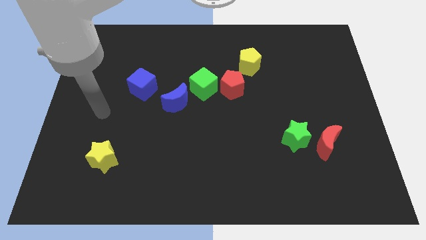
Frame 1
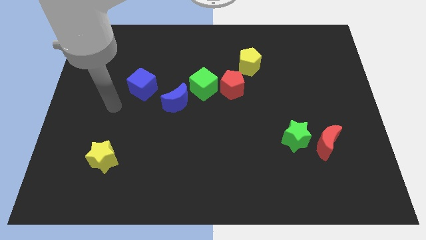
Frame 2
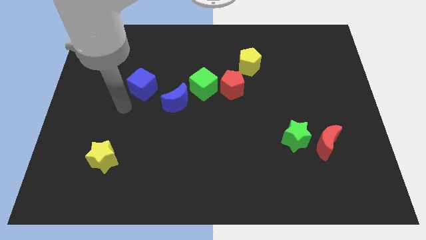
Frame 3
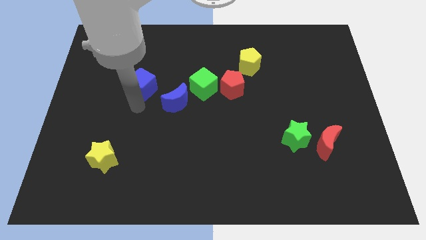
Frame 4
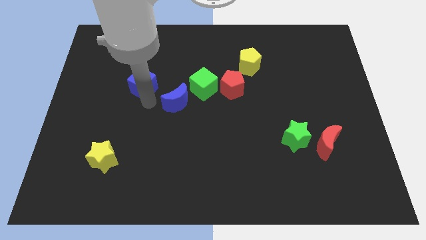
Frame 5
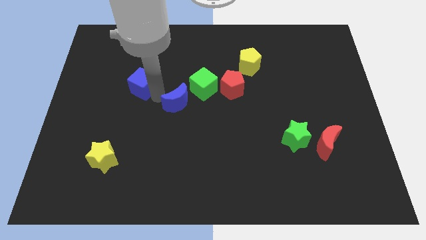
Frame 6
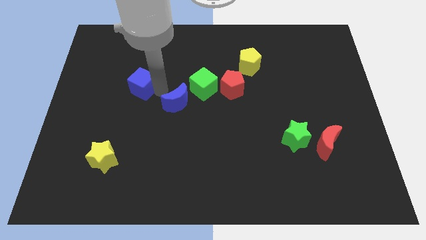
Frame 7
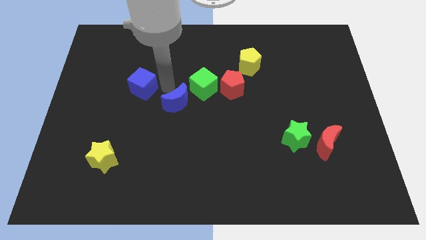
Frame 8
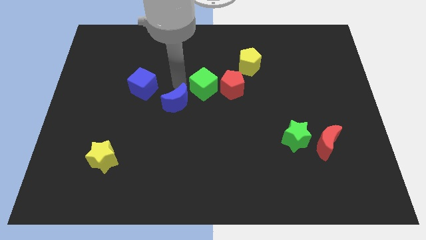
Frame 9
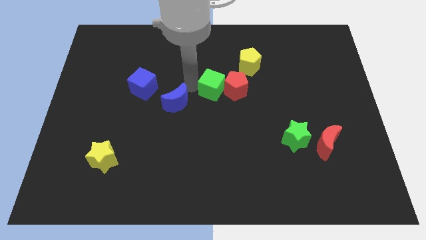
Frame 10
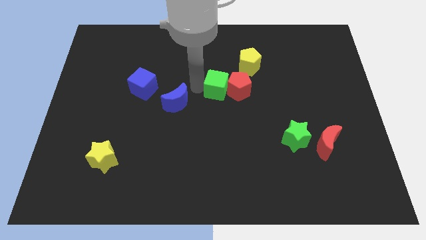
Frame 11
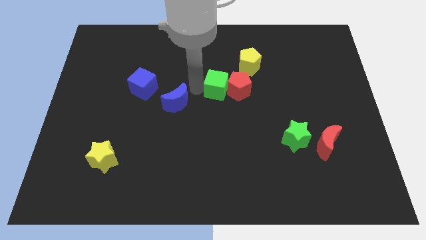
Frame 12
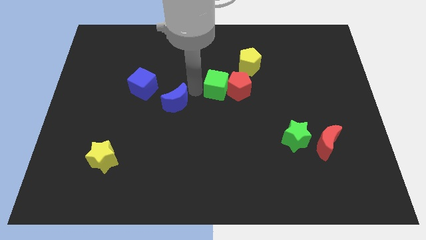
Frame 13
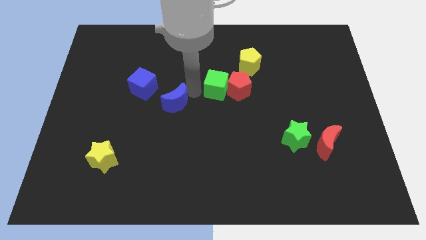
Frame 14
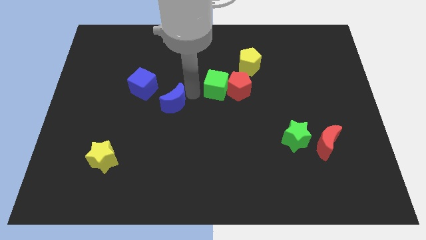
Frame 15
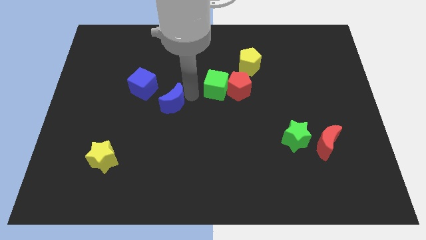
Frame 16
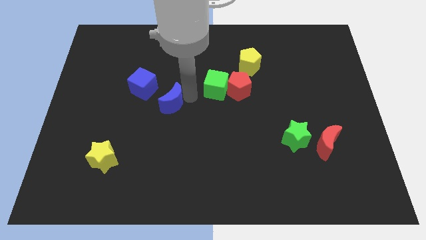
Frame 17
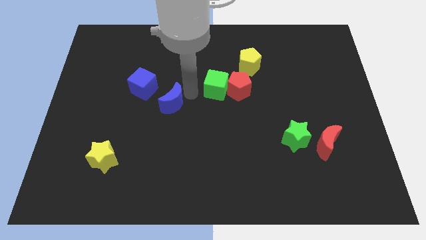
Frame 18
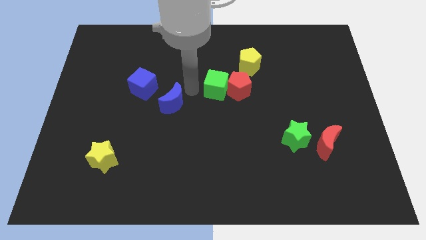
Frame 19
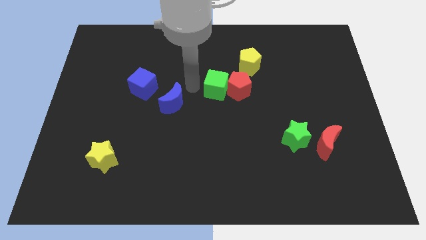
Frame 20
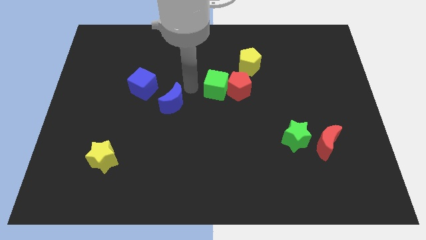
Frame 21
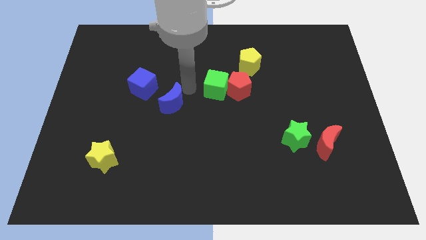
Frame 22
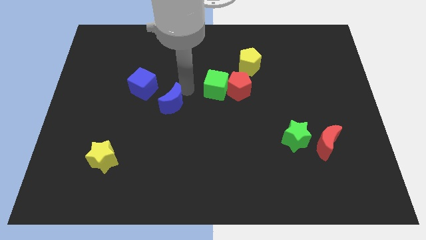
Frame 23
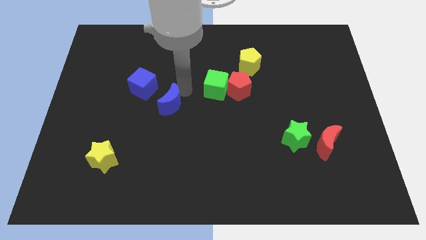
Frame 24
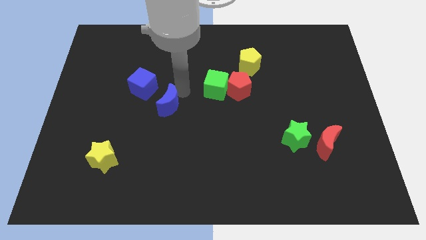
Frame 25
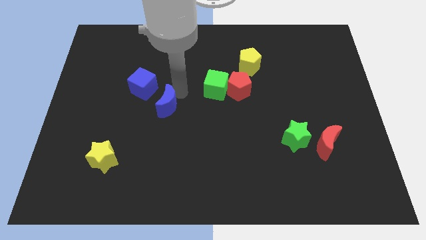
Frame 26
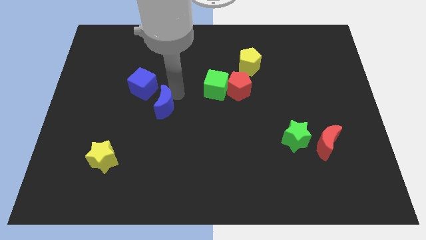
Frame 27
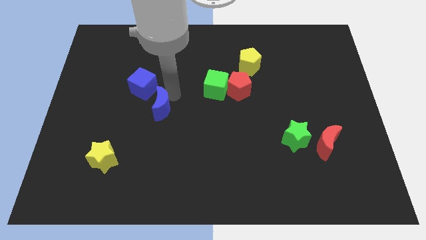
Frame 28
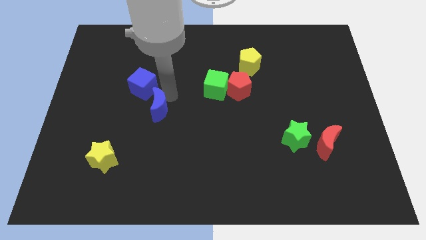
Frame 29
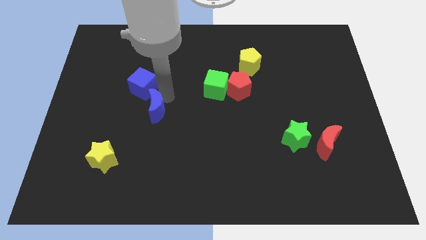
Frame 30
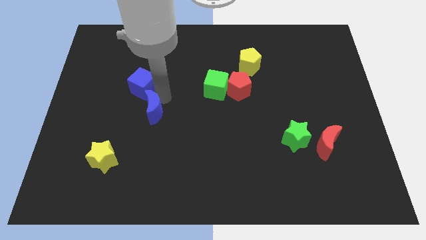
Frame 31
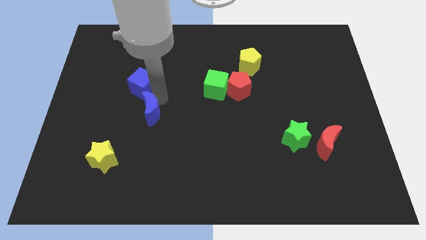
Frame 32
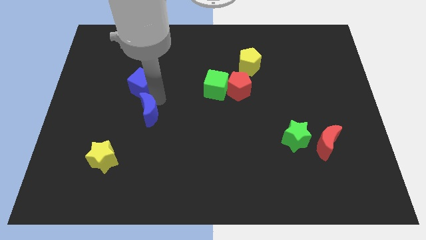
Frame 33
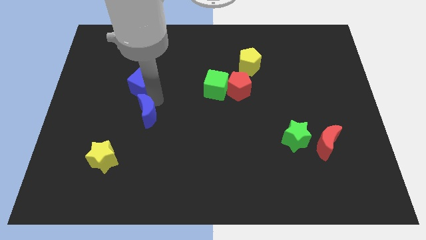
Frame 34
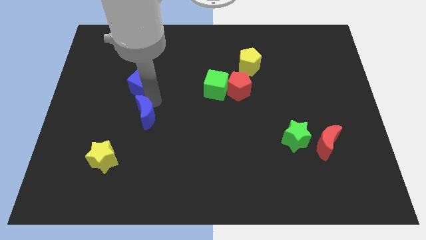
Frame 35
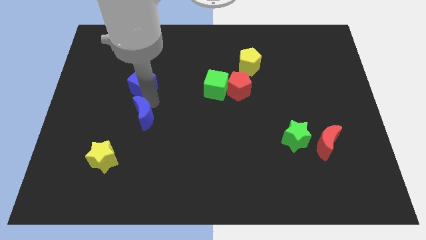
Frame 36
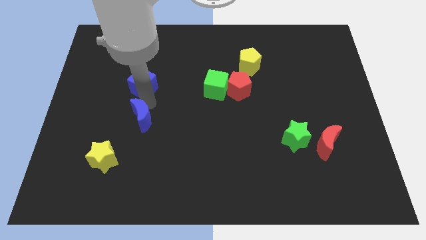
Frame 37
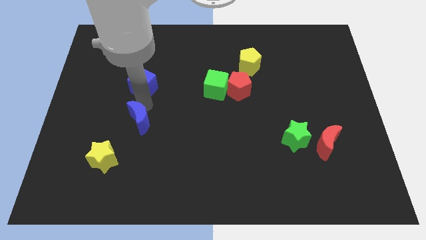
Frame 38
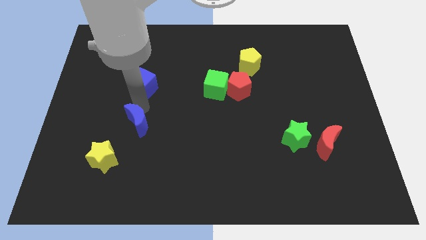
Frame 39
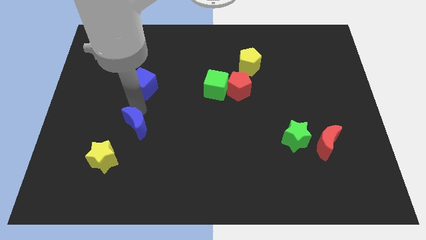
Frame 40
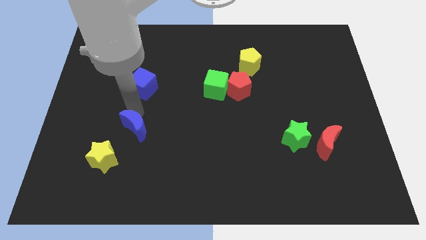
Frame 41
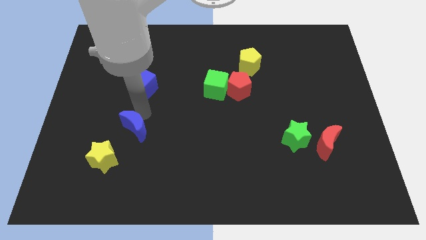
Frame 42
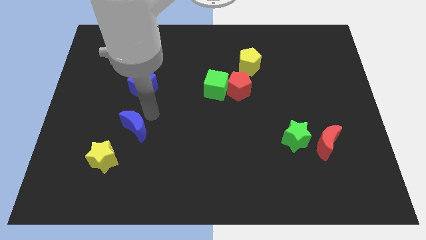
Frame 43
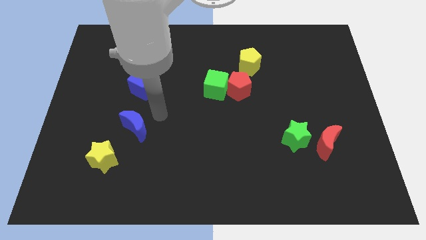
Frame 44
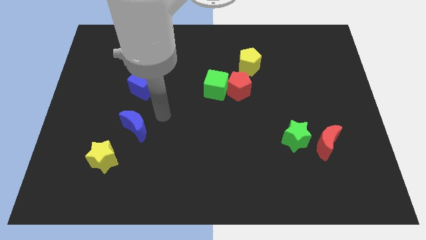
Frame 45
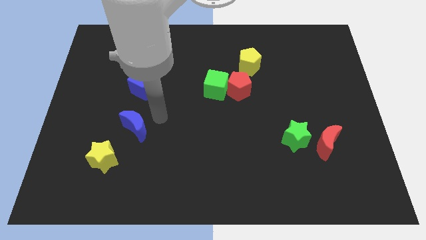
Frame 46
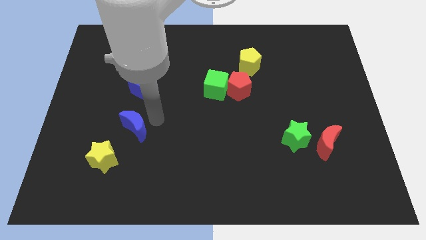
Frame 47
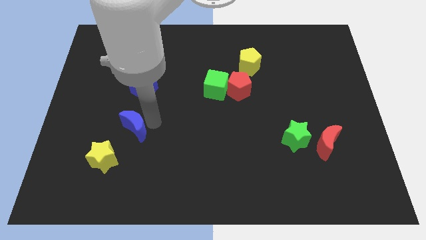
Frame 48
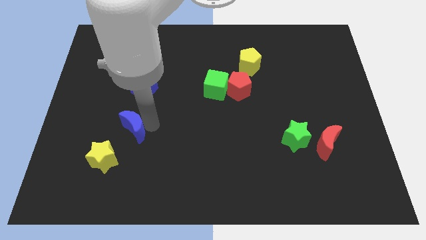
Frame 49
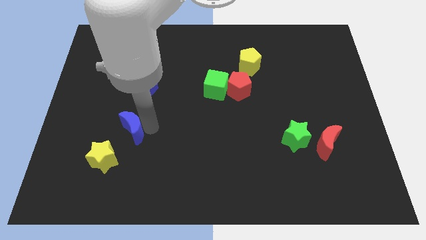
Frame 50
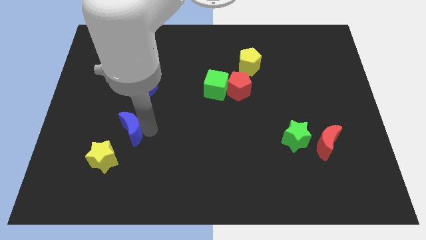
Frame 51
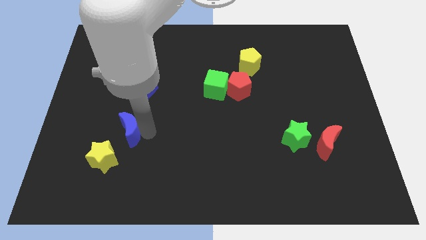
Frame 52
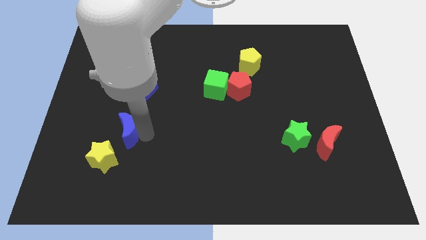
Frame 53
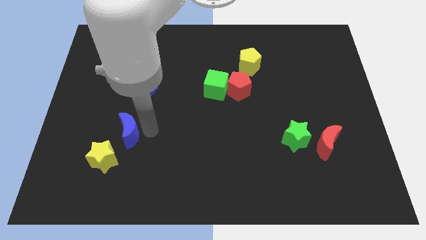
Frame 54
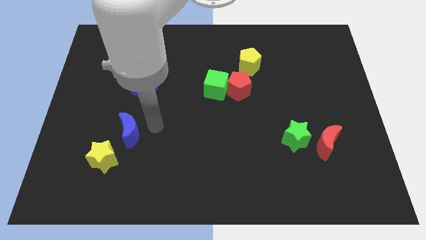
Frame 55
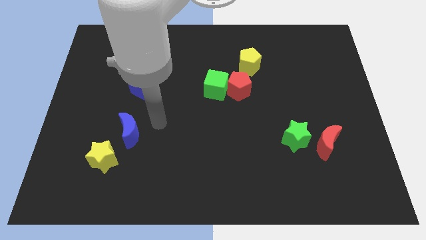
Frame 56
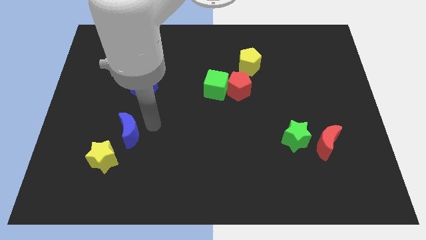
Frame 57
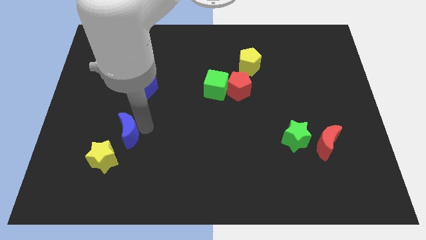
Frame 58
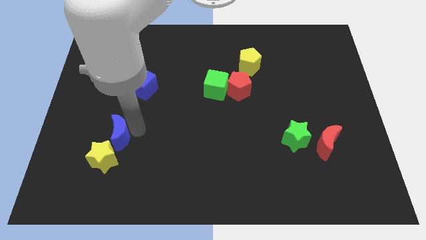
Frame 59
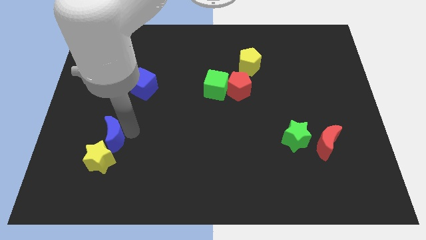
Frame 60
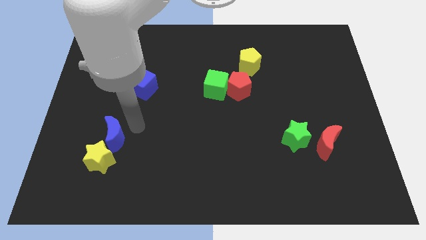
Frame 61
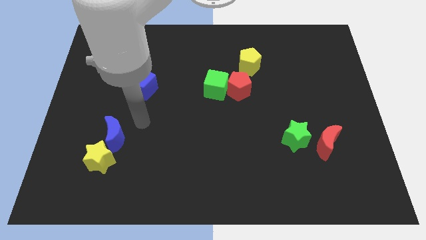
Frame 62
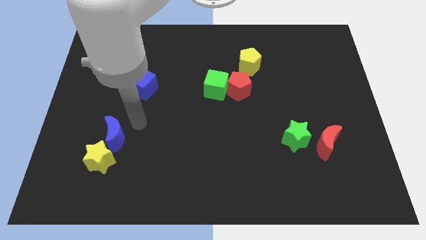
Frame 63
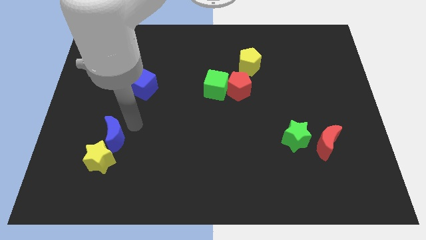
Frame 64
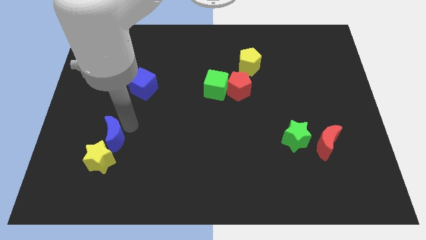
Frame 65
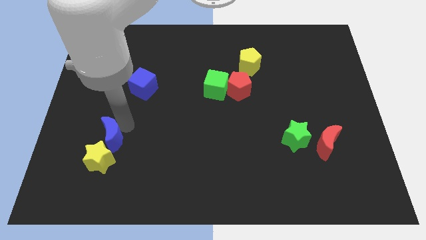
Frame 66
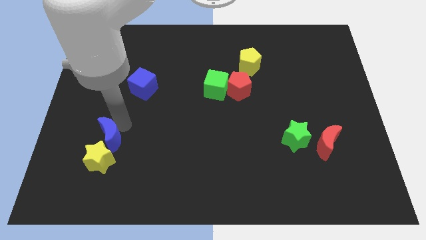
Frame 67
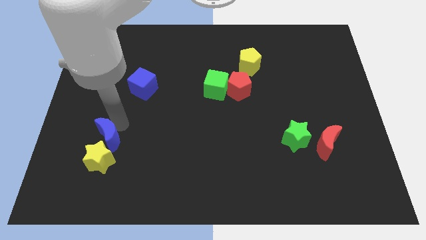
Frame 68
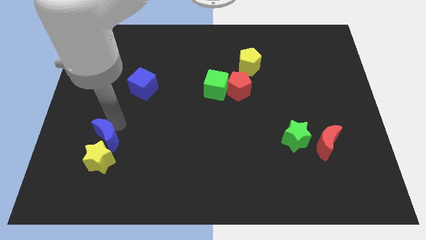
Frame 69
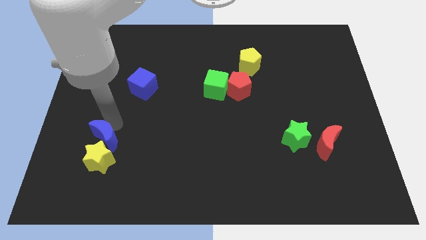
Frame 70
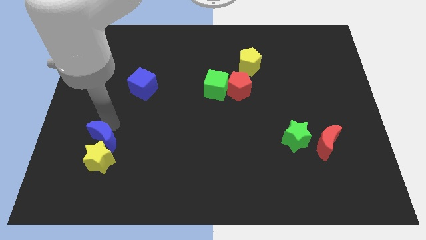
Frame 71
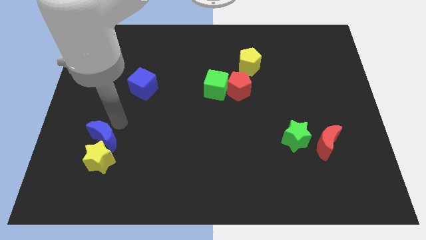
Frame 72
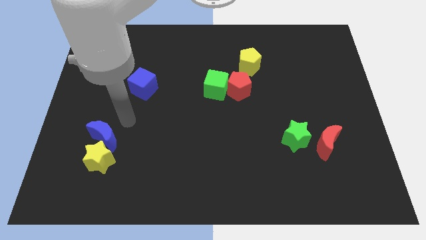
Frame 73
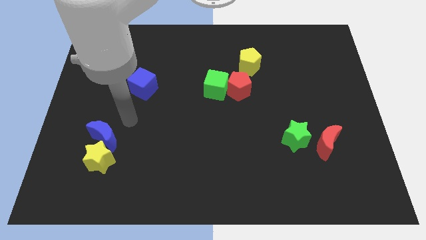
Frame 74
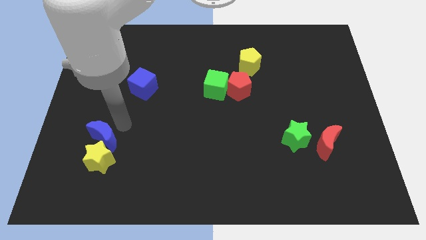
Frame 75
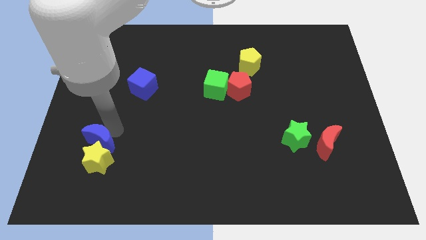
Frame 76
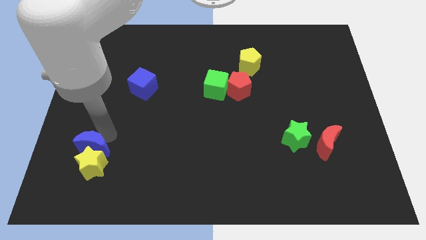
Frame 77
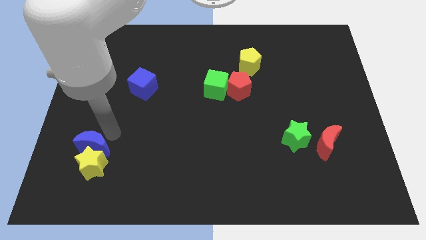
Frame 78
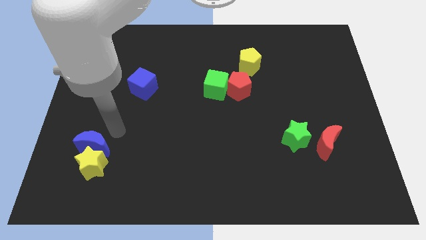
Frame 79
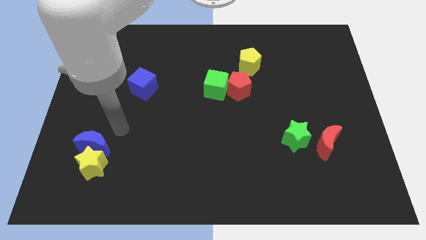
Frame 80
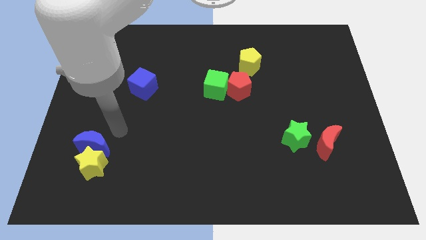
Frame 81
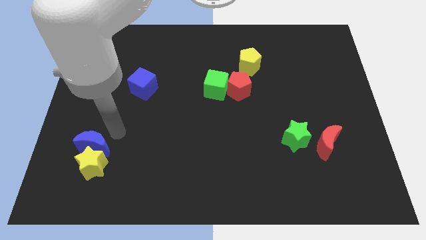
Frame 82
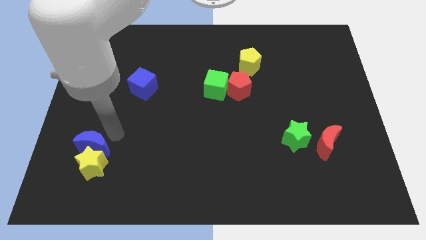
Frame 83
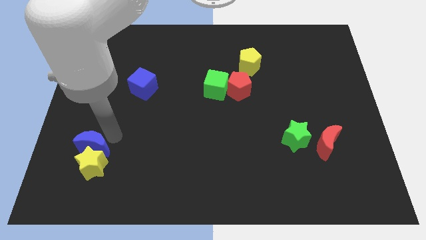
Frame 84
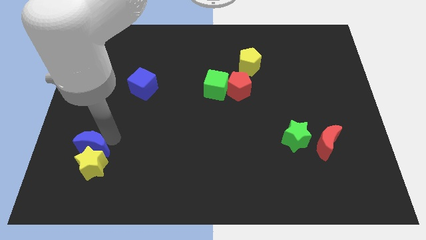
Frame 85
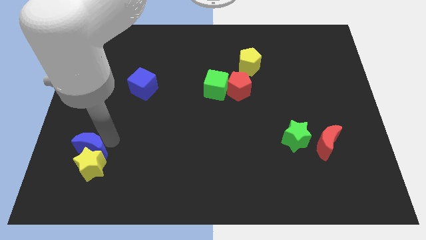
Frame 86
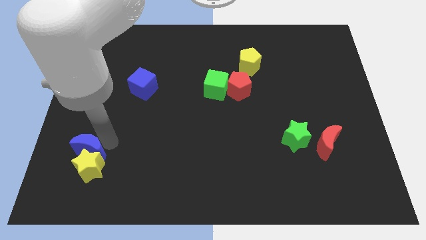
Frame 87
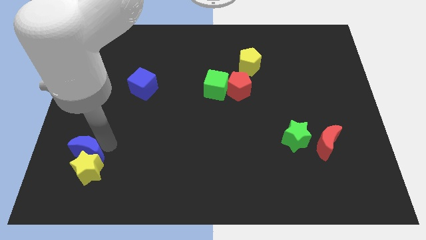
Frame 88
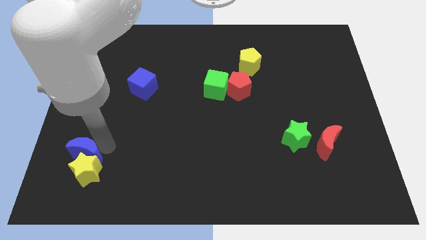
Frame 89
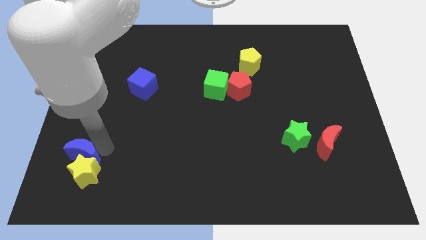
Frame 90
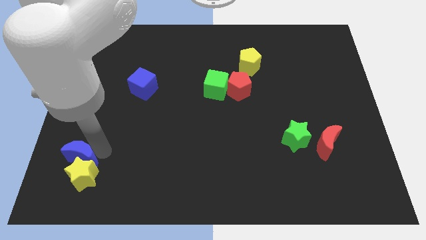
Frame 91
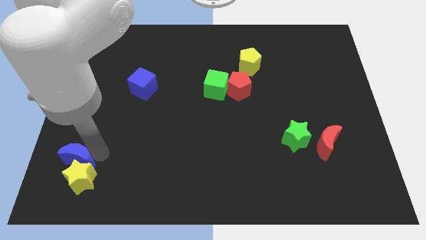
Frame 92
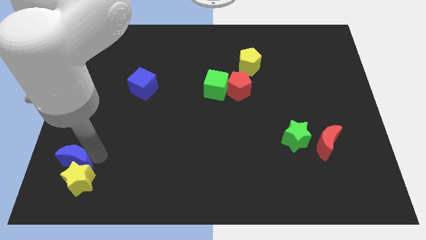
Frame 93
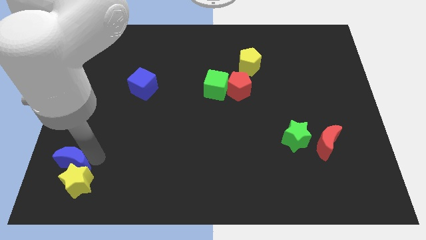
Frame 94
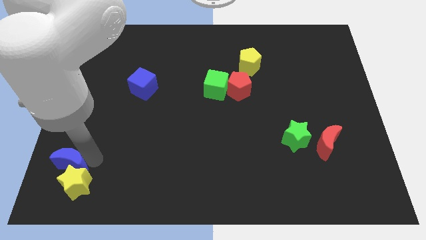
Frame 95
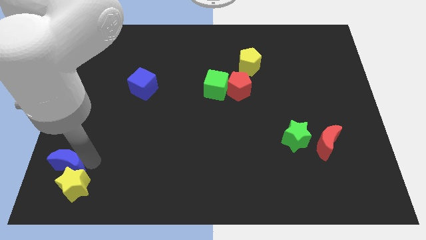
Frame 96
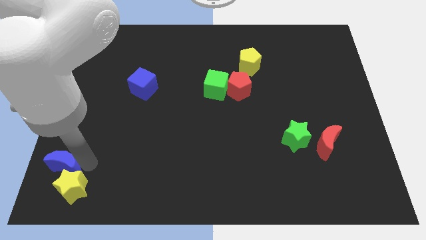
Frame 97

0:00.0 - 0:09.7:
put the blue moon to the lower left corner
